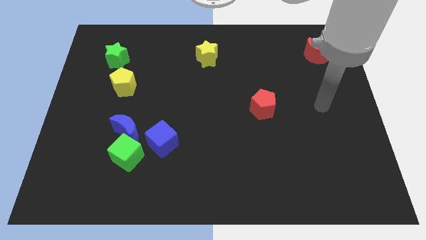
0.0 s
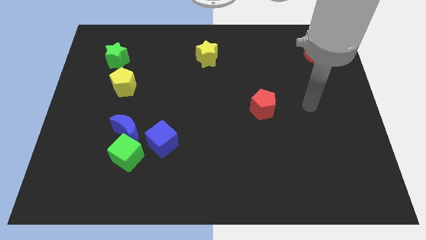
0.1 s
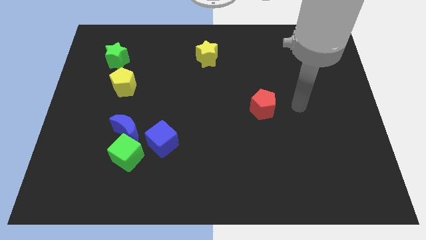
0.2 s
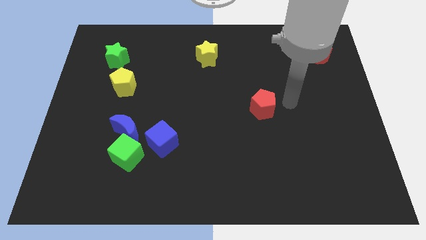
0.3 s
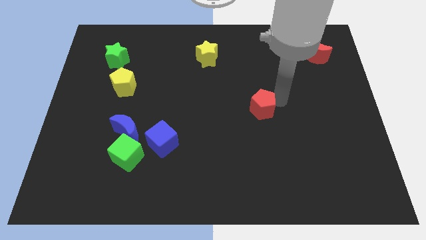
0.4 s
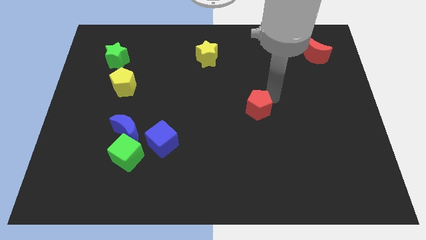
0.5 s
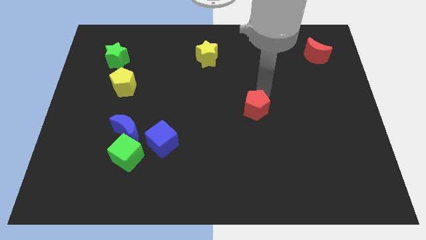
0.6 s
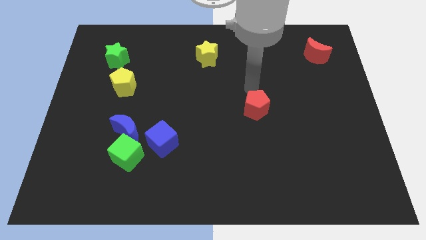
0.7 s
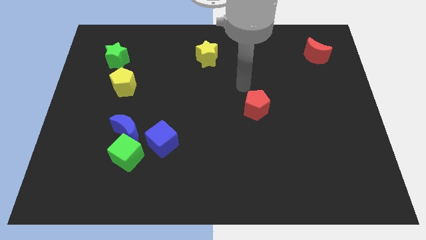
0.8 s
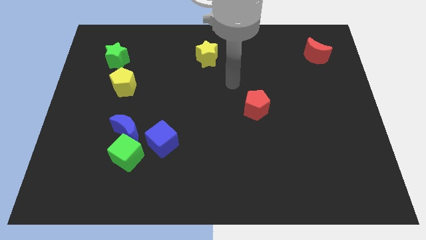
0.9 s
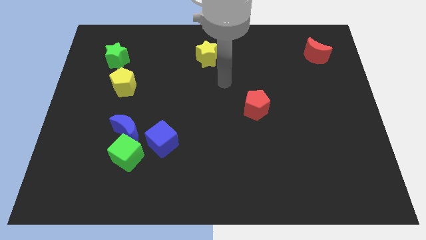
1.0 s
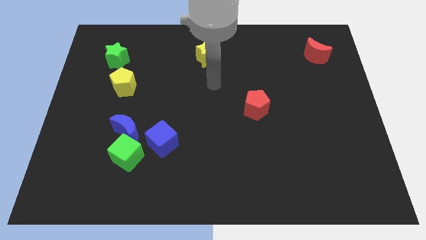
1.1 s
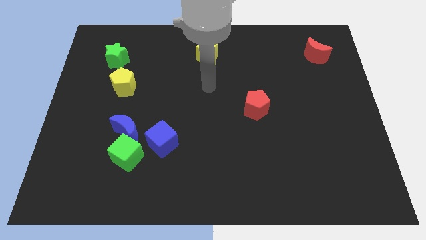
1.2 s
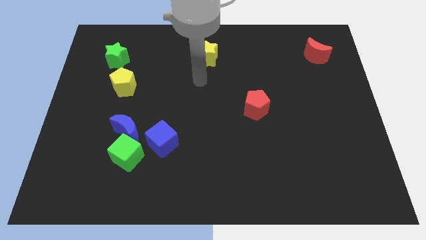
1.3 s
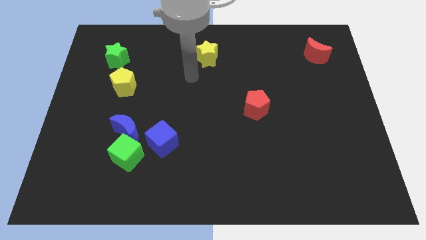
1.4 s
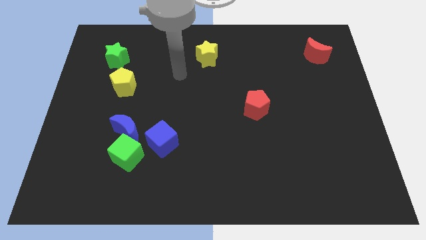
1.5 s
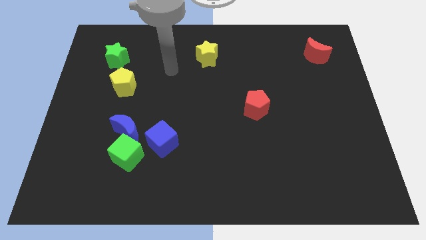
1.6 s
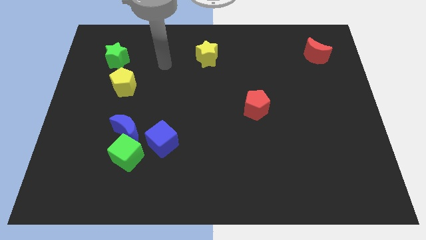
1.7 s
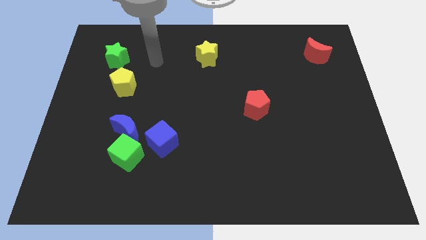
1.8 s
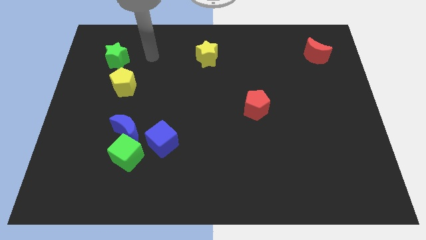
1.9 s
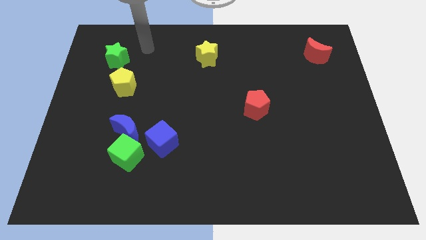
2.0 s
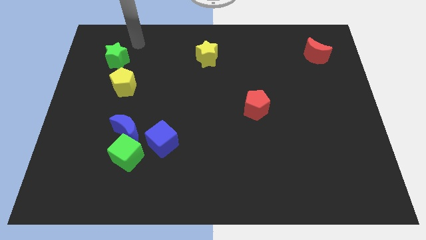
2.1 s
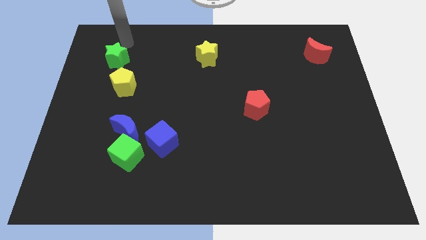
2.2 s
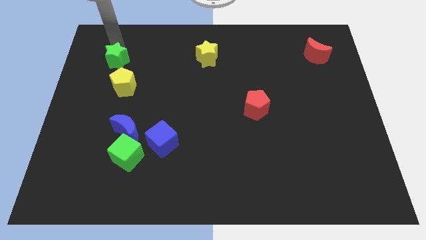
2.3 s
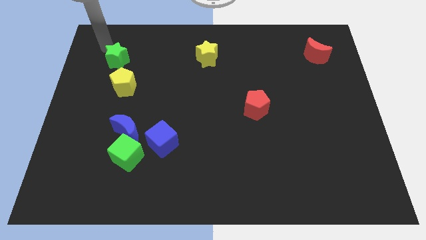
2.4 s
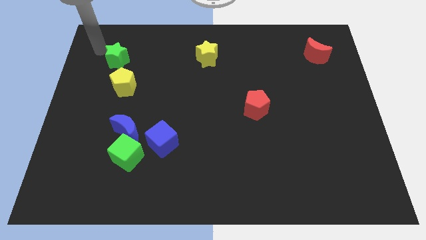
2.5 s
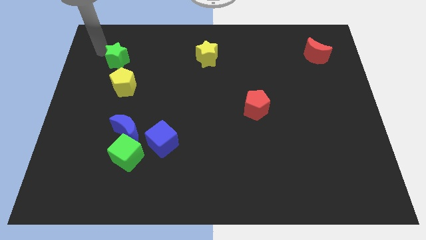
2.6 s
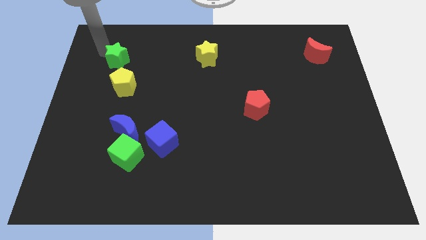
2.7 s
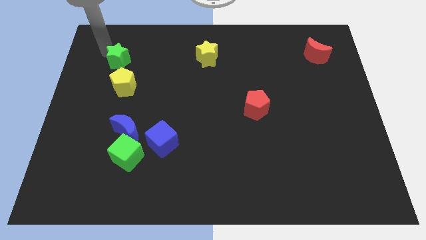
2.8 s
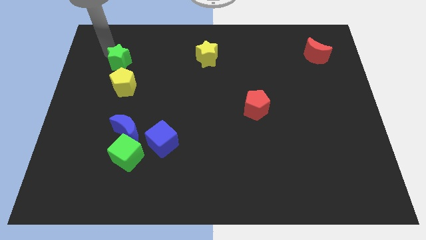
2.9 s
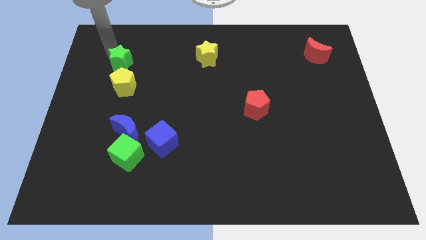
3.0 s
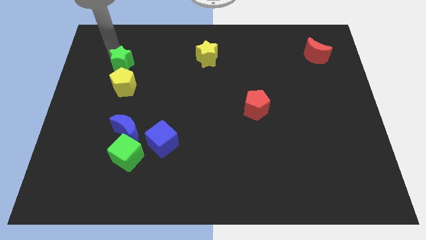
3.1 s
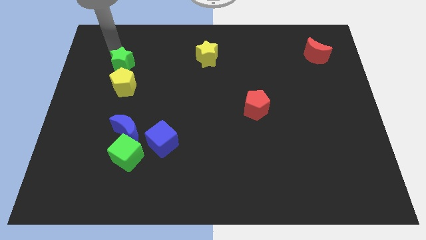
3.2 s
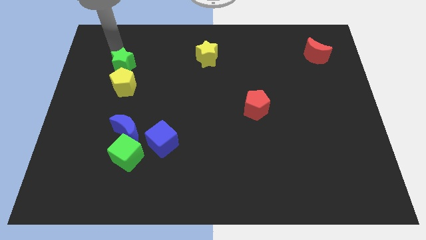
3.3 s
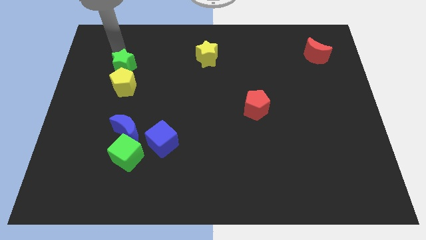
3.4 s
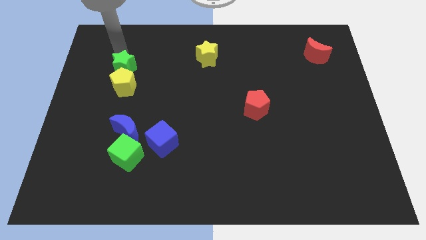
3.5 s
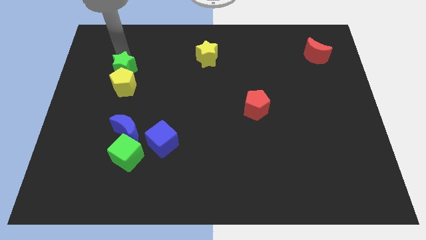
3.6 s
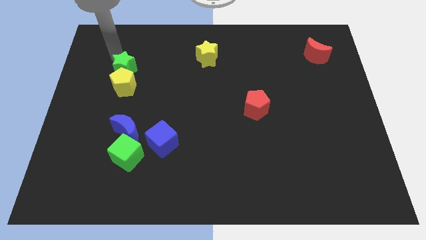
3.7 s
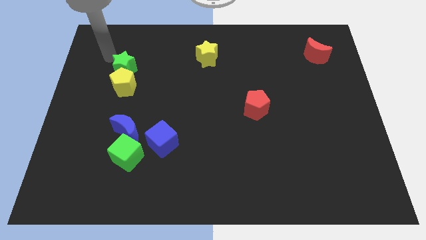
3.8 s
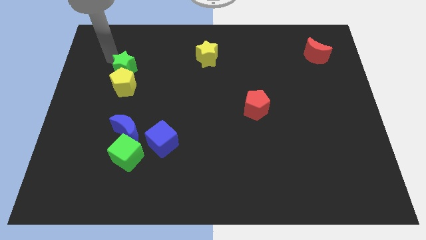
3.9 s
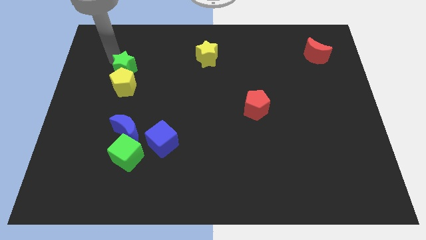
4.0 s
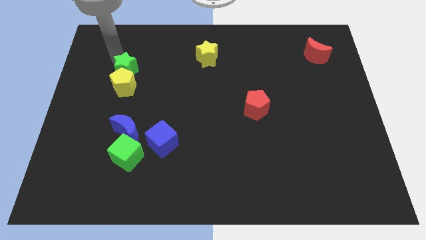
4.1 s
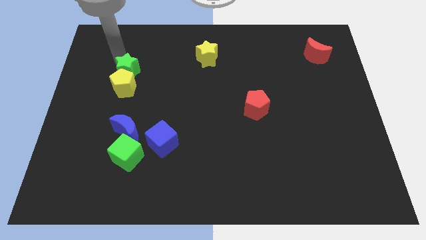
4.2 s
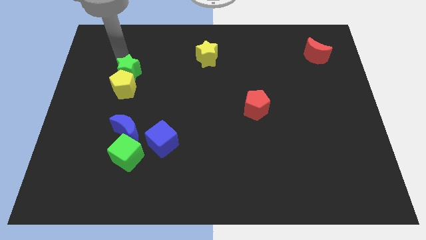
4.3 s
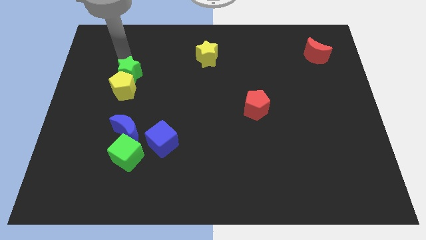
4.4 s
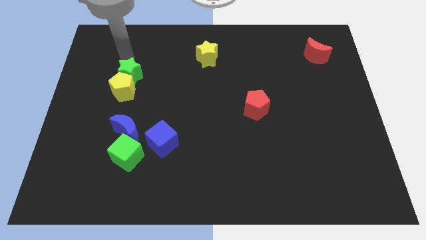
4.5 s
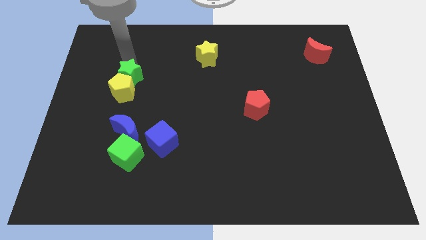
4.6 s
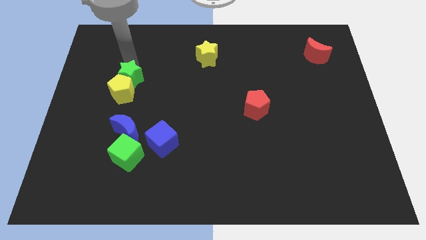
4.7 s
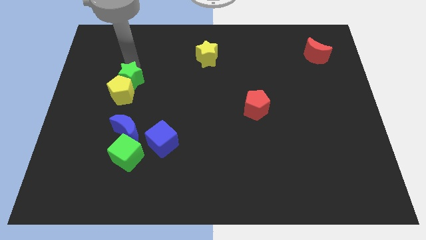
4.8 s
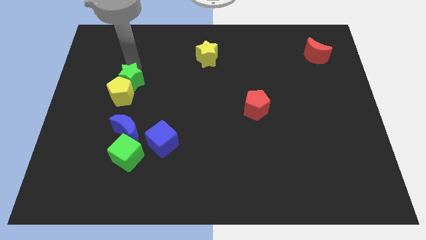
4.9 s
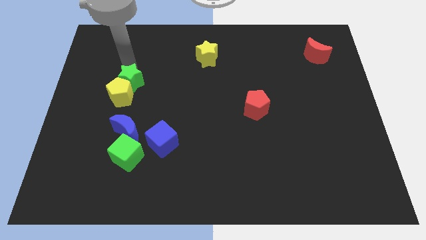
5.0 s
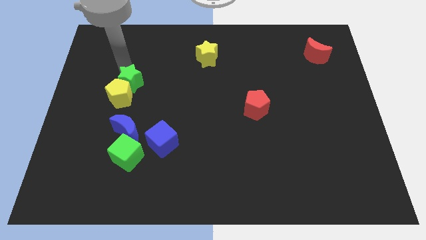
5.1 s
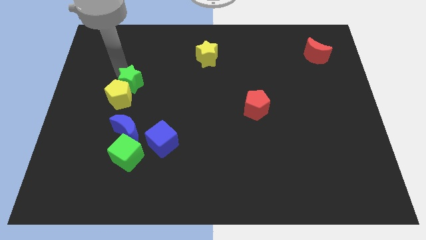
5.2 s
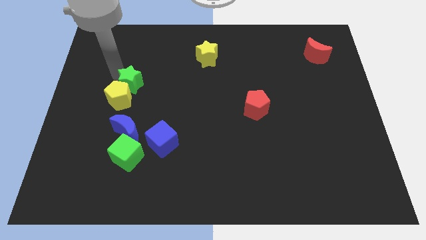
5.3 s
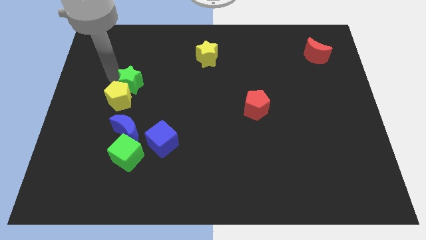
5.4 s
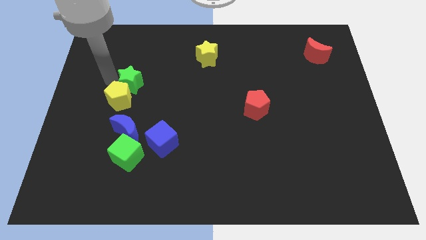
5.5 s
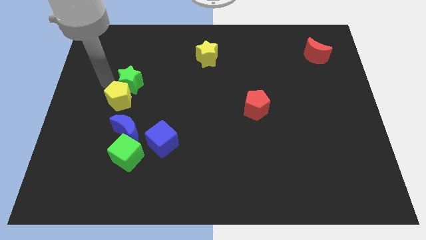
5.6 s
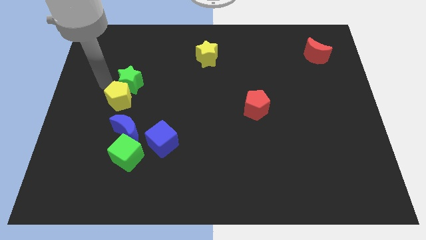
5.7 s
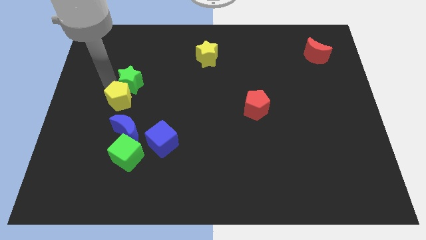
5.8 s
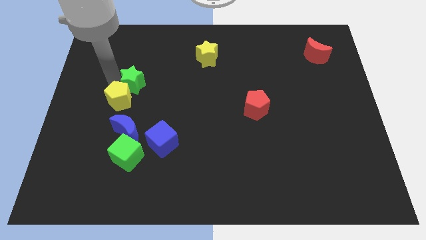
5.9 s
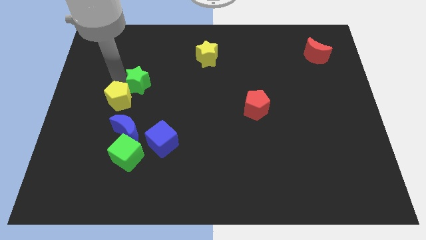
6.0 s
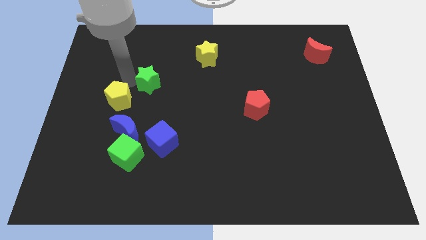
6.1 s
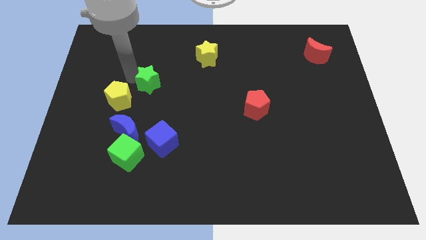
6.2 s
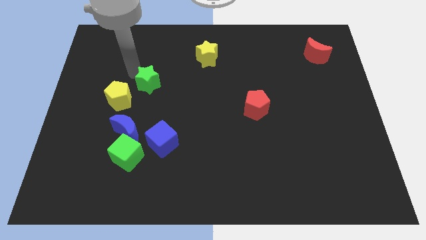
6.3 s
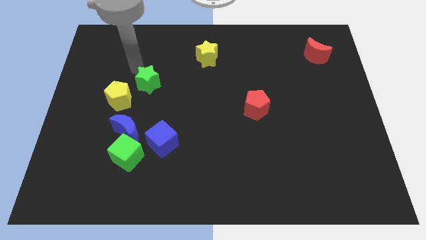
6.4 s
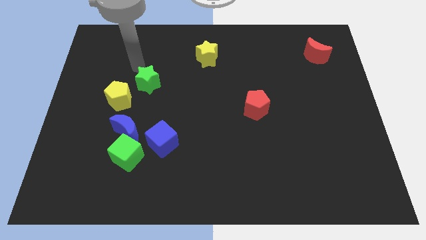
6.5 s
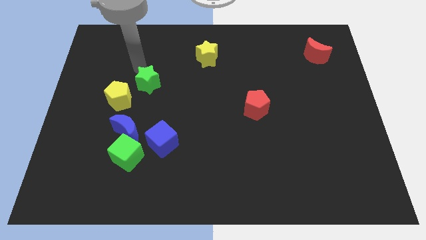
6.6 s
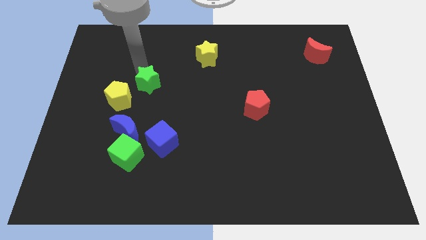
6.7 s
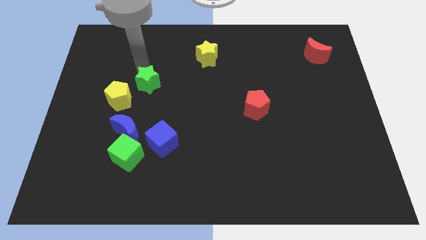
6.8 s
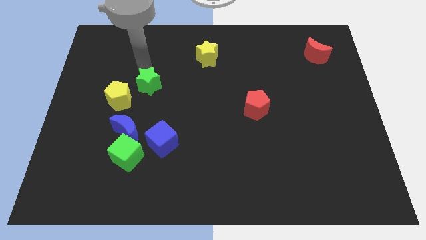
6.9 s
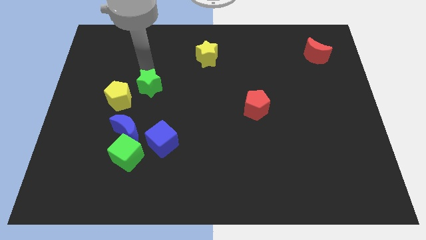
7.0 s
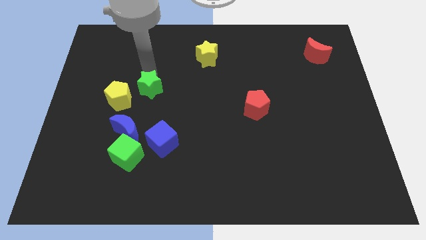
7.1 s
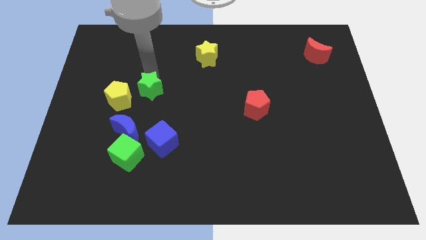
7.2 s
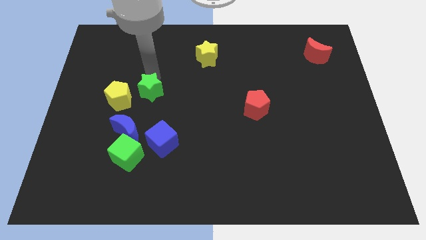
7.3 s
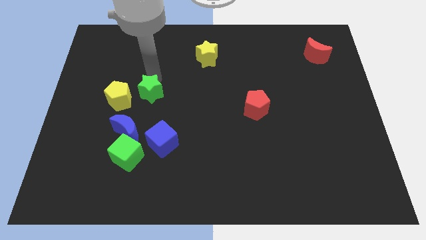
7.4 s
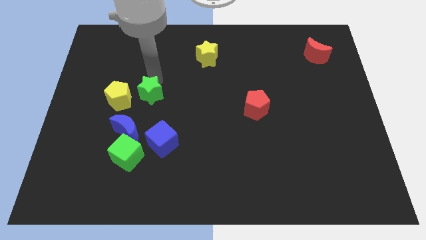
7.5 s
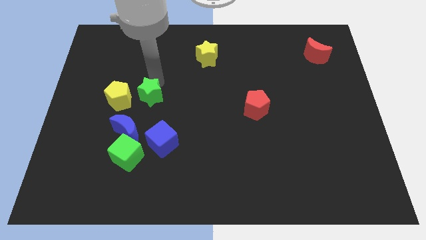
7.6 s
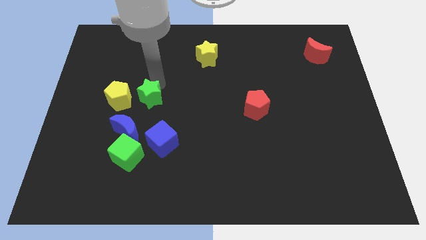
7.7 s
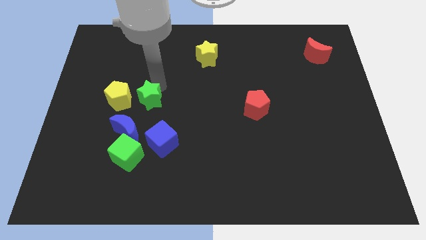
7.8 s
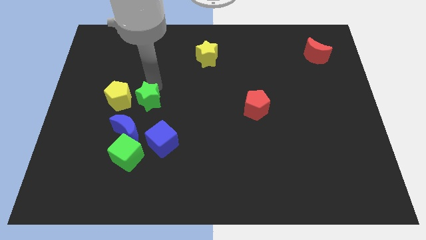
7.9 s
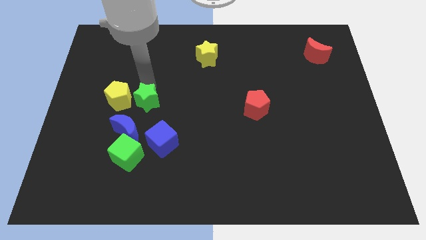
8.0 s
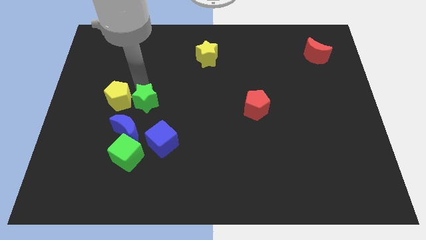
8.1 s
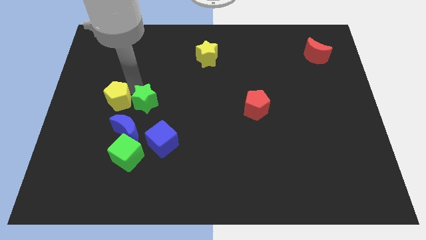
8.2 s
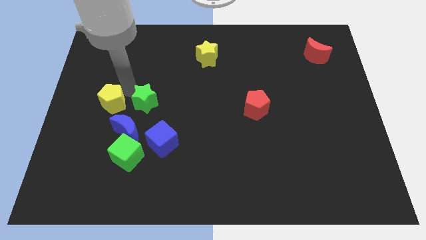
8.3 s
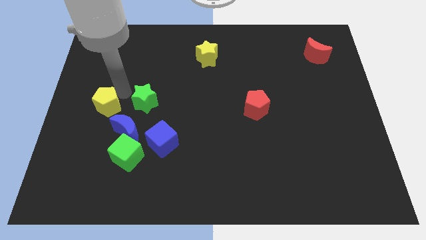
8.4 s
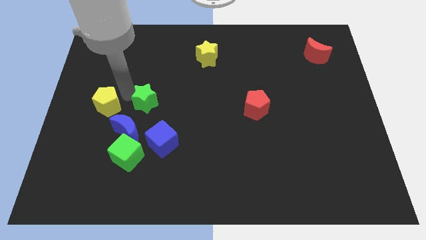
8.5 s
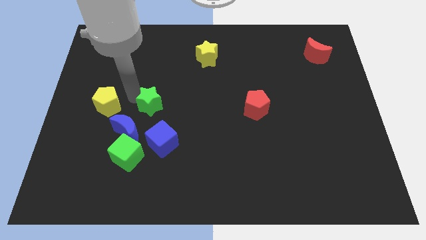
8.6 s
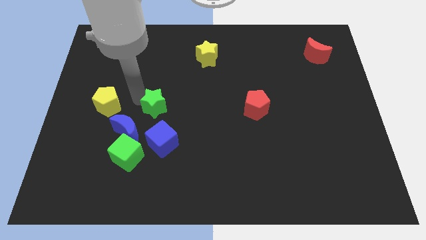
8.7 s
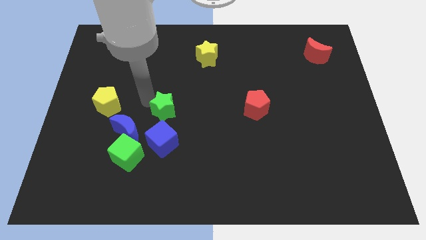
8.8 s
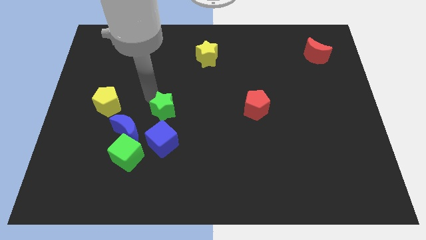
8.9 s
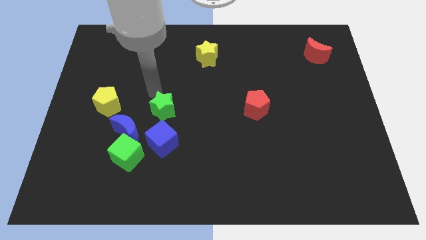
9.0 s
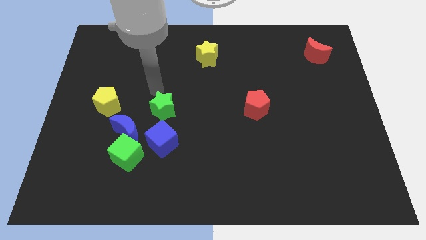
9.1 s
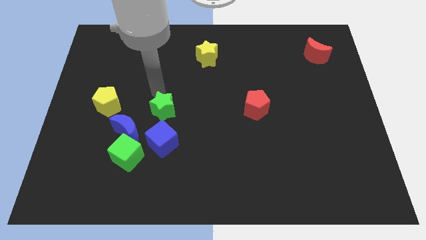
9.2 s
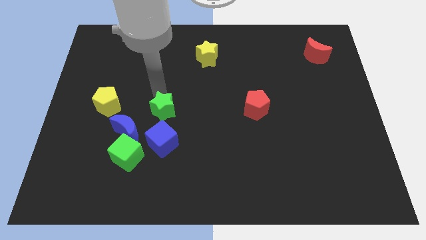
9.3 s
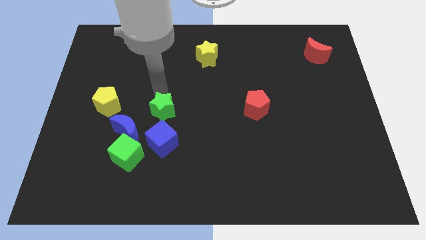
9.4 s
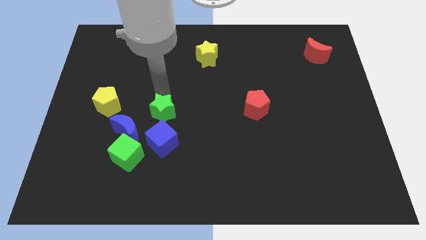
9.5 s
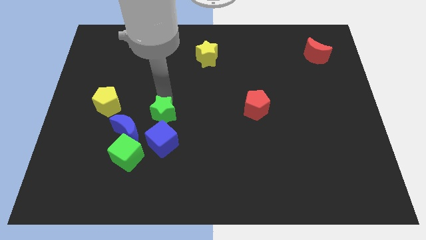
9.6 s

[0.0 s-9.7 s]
push the green star to the right side of the blue moon
